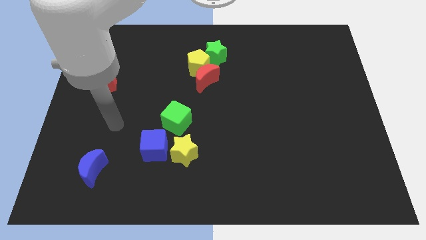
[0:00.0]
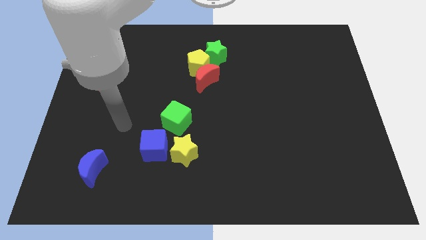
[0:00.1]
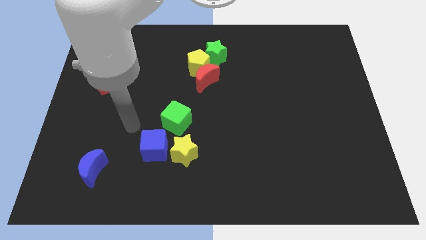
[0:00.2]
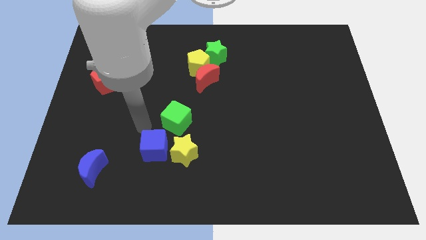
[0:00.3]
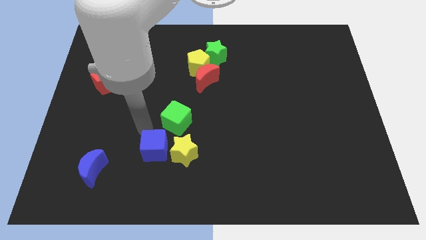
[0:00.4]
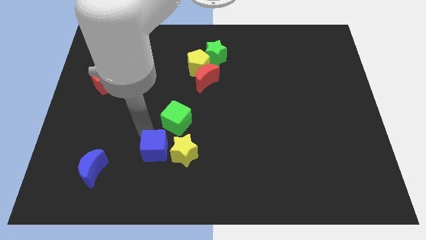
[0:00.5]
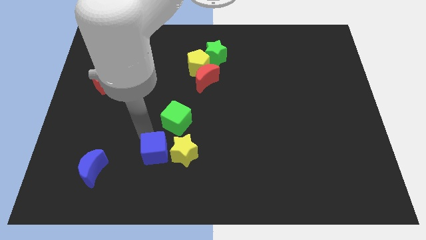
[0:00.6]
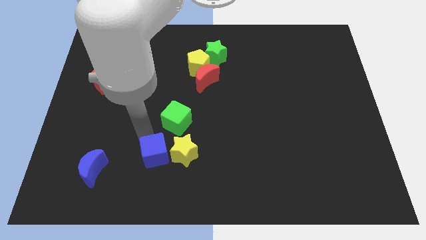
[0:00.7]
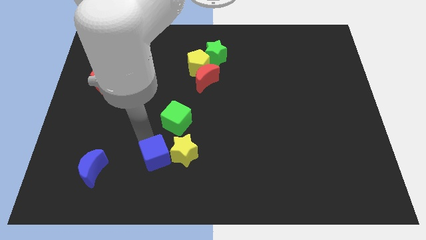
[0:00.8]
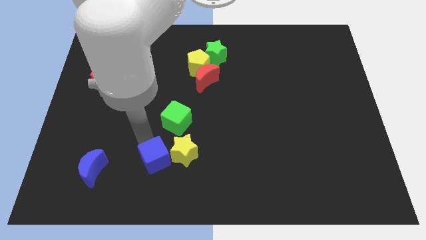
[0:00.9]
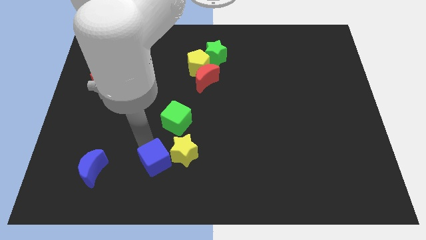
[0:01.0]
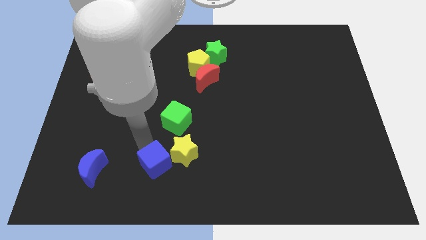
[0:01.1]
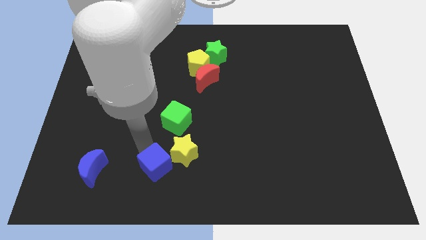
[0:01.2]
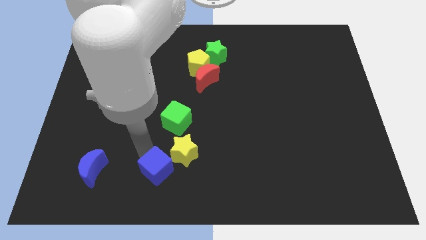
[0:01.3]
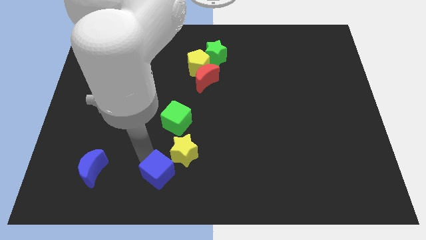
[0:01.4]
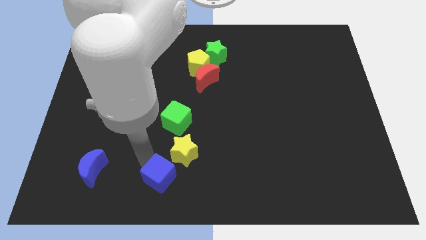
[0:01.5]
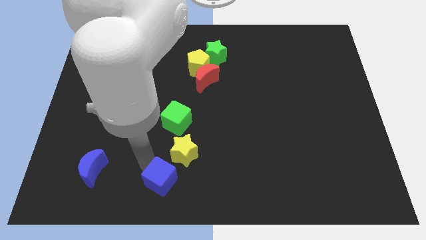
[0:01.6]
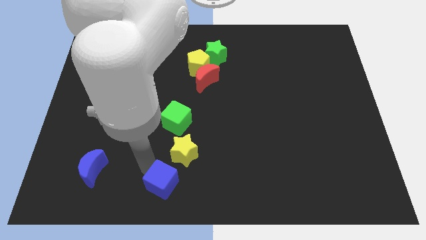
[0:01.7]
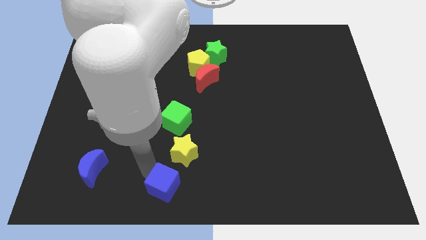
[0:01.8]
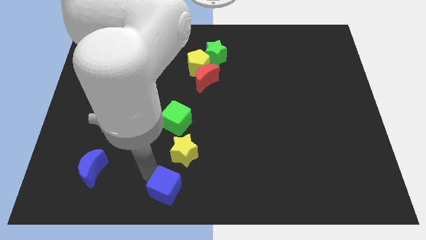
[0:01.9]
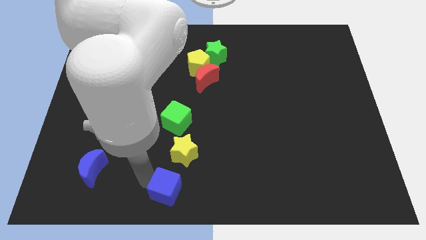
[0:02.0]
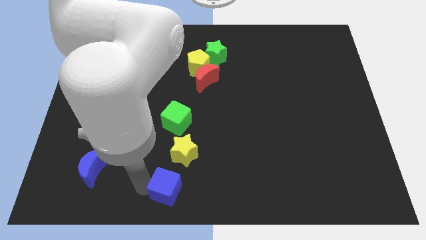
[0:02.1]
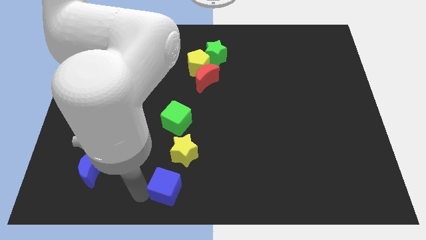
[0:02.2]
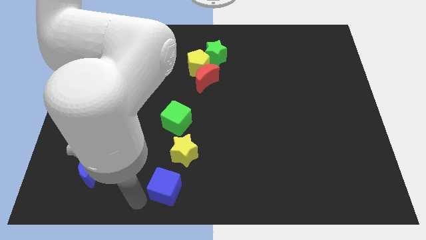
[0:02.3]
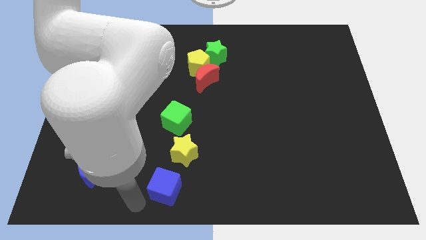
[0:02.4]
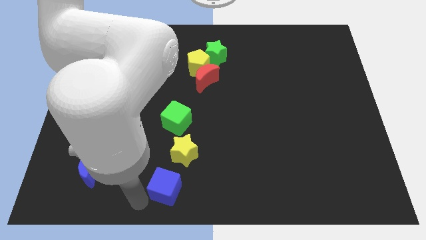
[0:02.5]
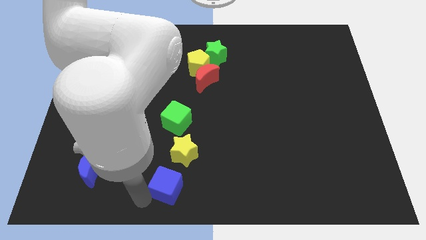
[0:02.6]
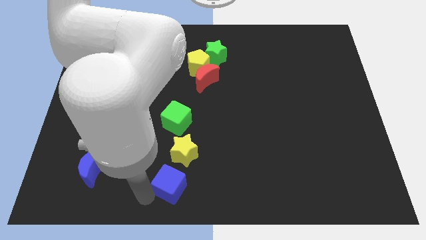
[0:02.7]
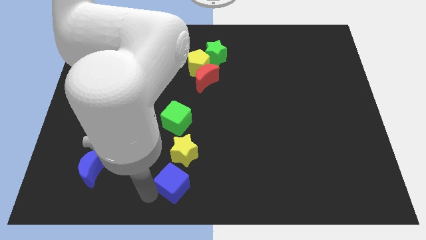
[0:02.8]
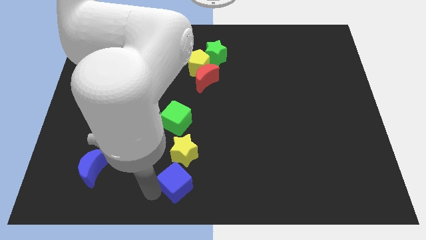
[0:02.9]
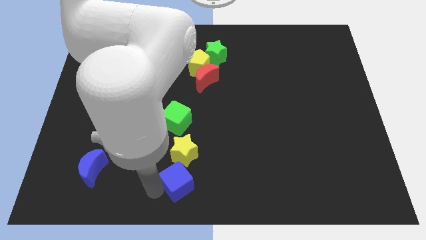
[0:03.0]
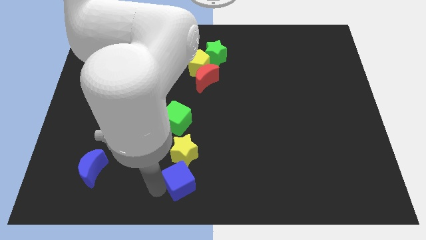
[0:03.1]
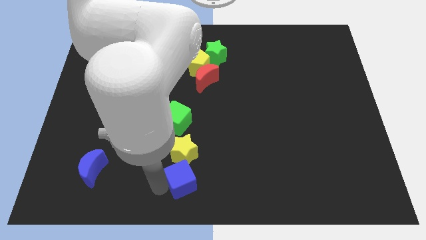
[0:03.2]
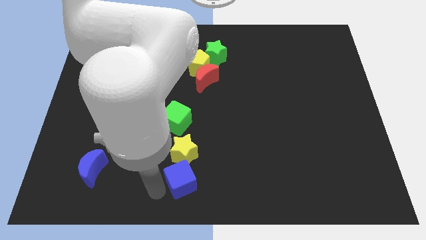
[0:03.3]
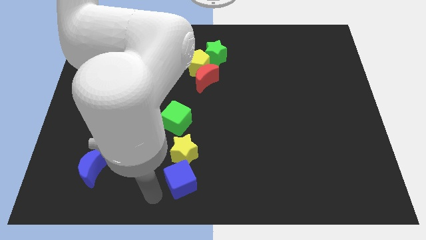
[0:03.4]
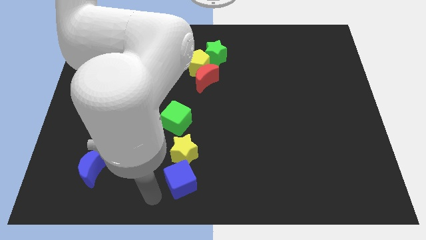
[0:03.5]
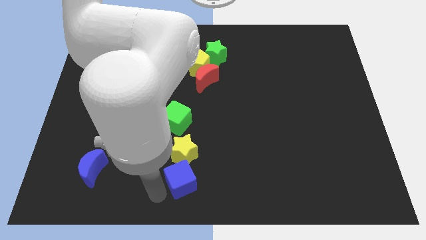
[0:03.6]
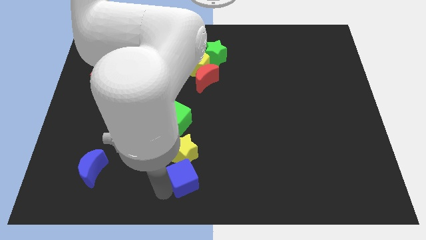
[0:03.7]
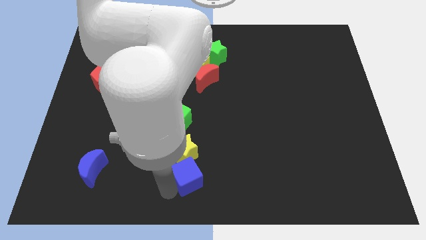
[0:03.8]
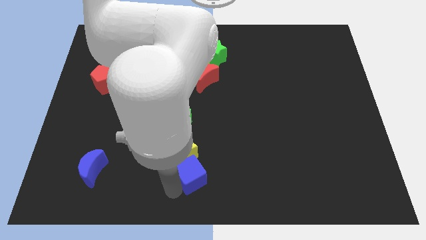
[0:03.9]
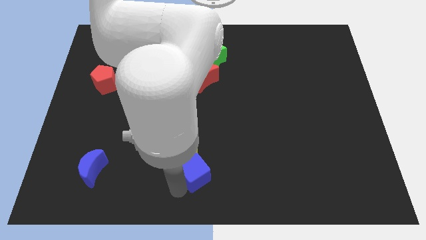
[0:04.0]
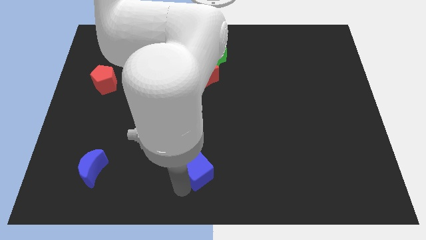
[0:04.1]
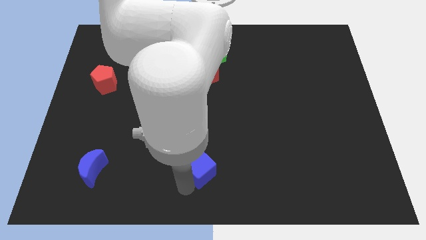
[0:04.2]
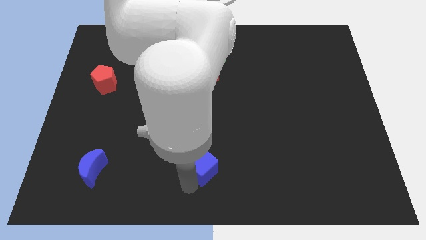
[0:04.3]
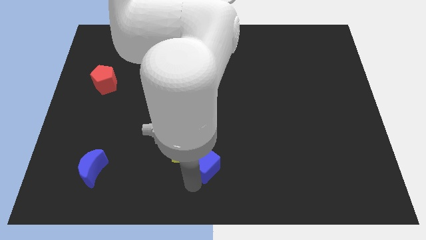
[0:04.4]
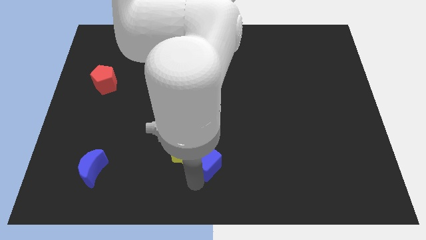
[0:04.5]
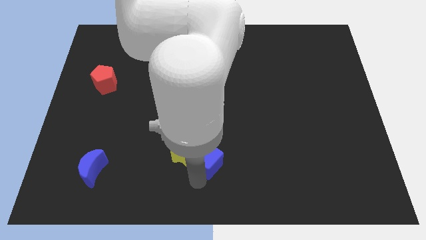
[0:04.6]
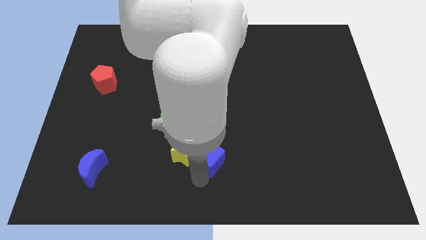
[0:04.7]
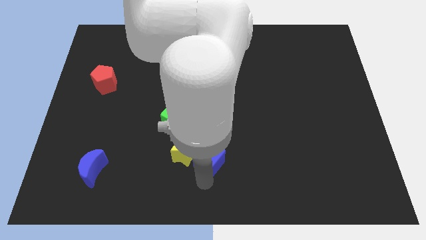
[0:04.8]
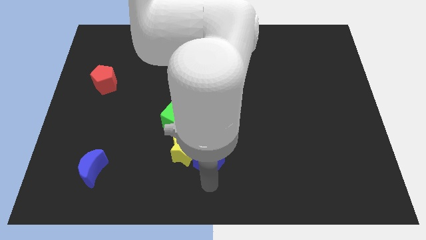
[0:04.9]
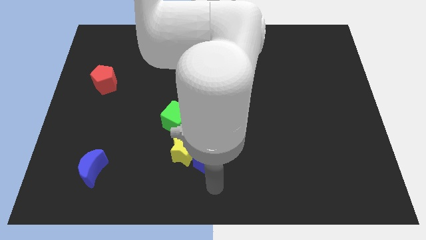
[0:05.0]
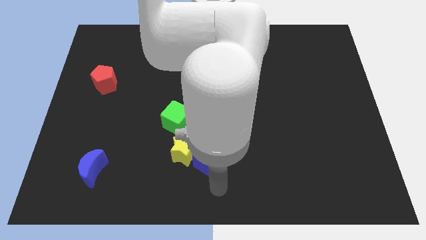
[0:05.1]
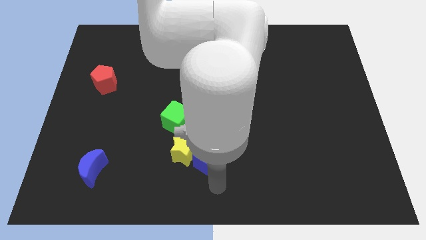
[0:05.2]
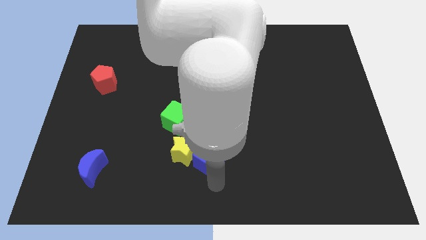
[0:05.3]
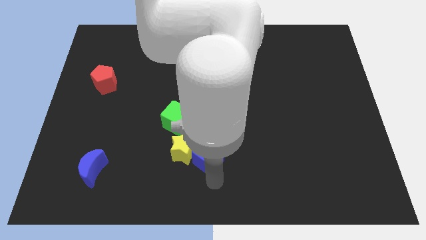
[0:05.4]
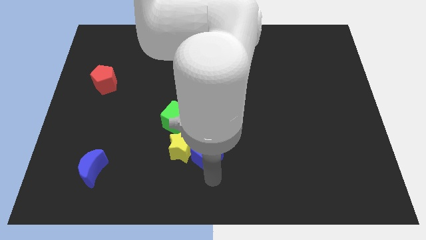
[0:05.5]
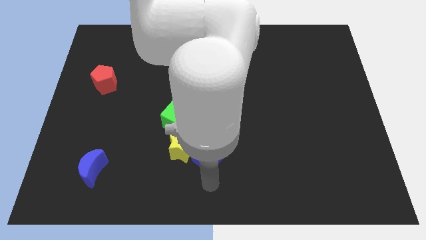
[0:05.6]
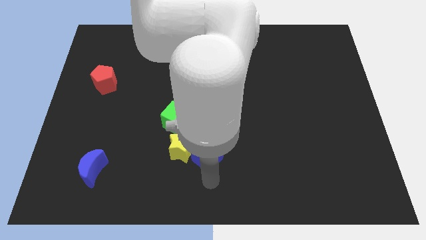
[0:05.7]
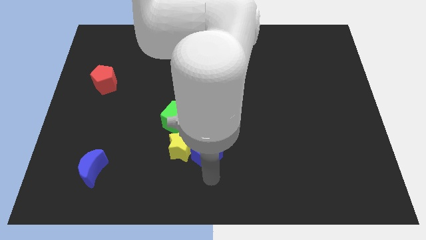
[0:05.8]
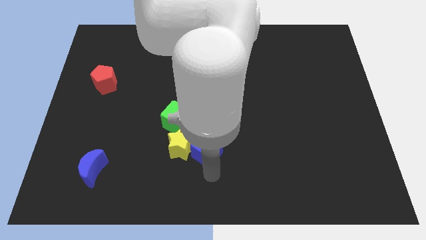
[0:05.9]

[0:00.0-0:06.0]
push the blue cube to the top right side of the yellow star

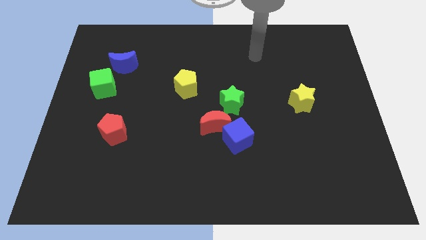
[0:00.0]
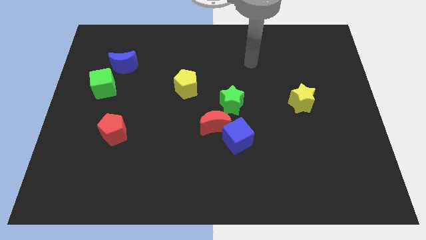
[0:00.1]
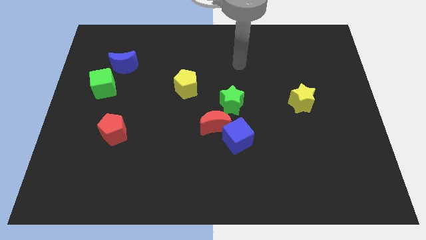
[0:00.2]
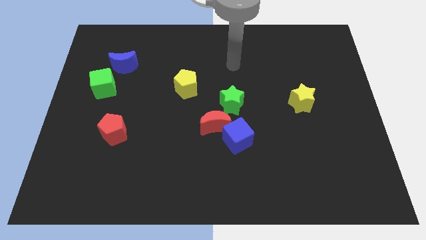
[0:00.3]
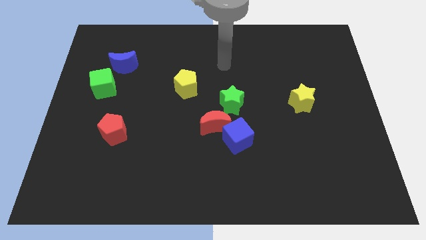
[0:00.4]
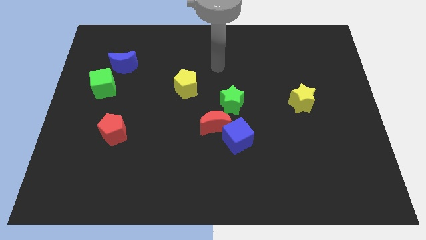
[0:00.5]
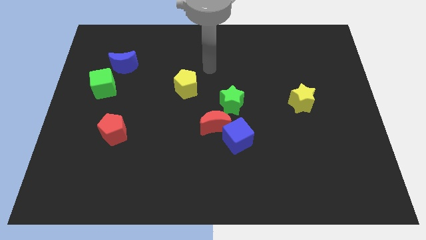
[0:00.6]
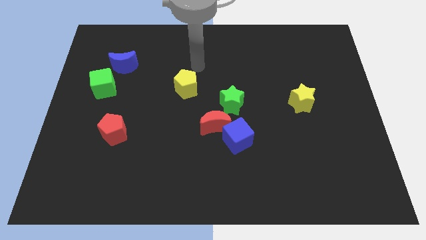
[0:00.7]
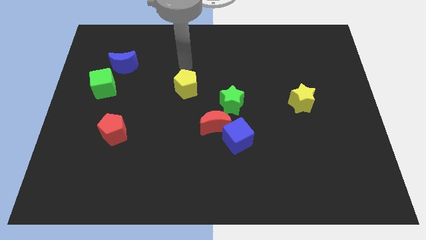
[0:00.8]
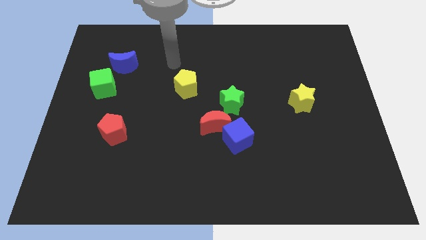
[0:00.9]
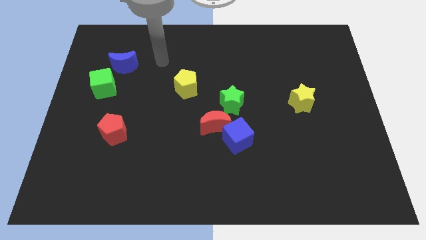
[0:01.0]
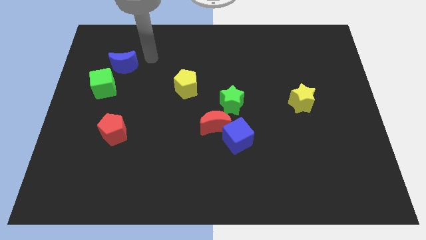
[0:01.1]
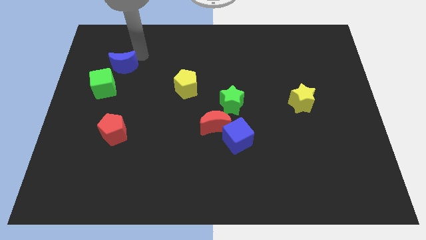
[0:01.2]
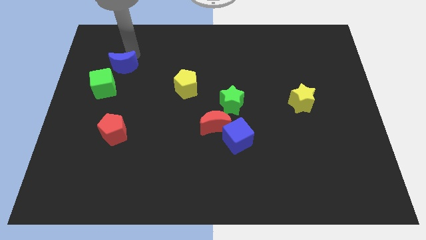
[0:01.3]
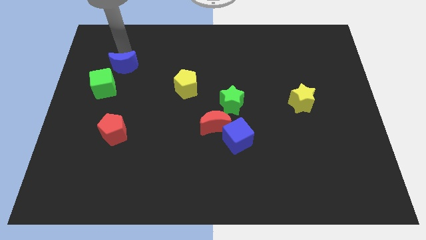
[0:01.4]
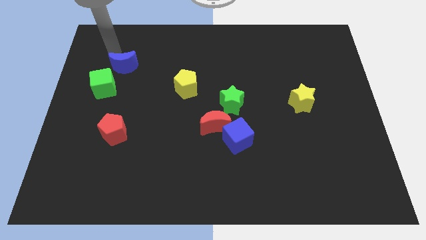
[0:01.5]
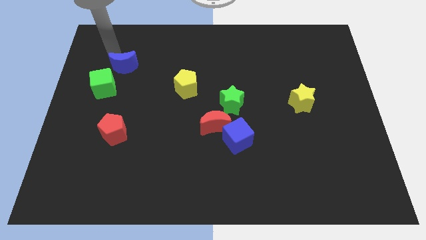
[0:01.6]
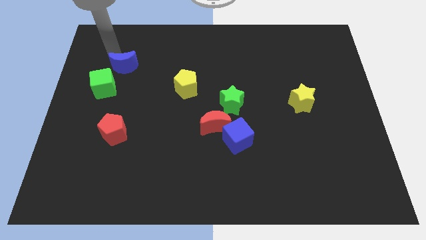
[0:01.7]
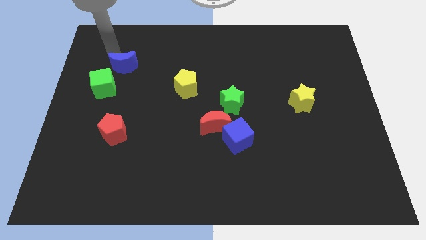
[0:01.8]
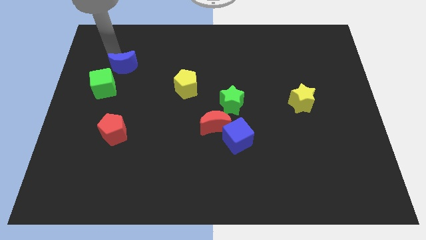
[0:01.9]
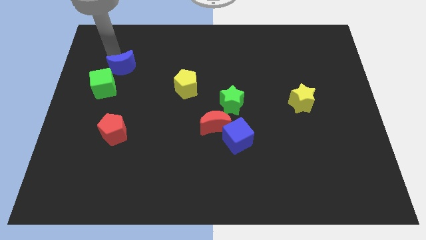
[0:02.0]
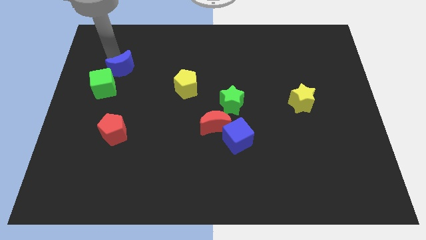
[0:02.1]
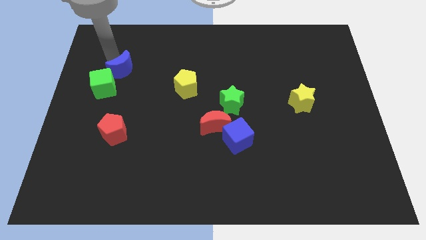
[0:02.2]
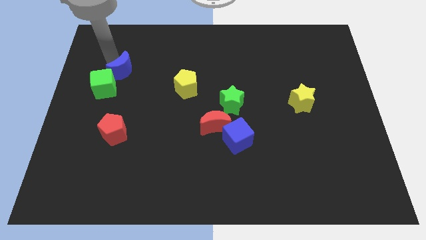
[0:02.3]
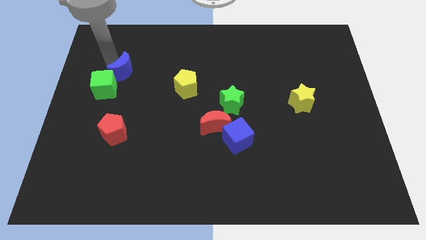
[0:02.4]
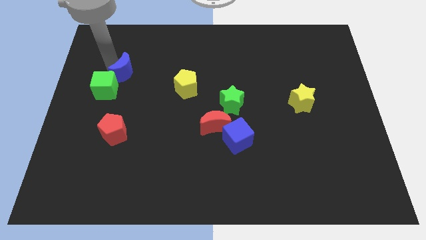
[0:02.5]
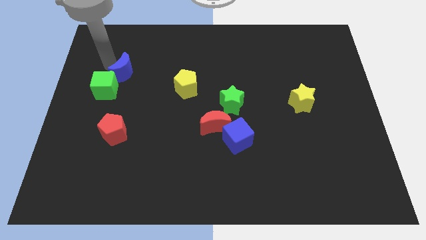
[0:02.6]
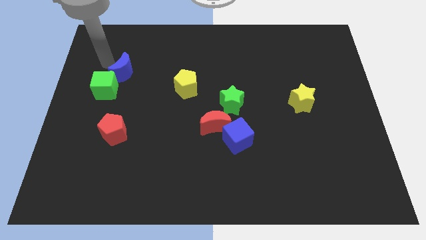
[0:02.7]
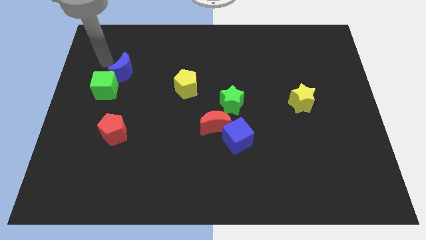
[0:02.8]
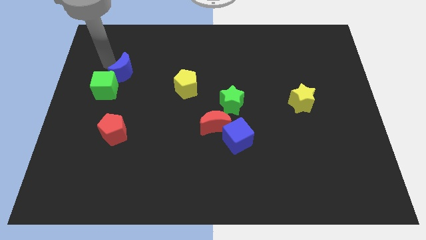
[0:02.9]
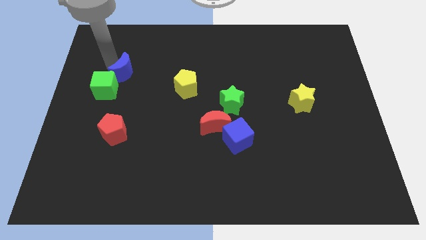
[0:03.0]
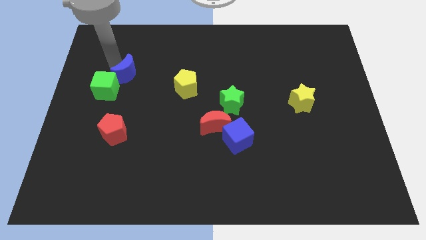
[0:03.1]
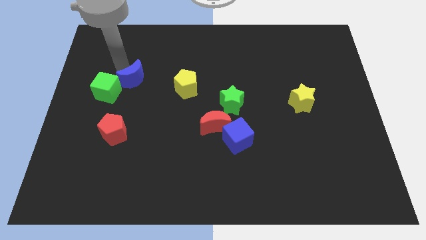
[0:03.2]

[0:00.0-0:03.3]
put the blue moon right of the green cube
